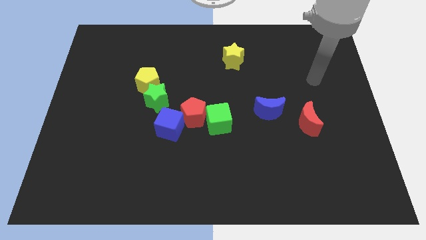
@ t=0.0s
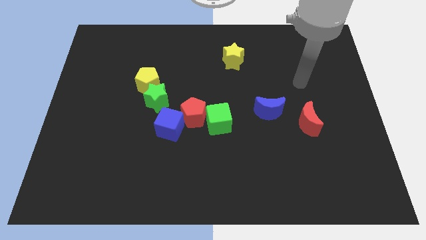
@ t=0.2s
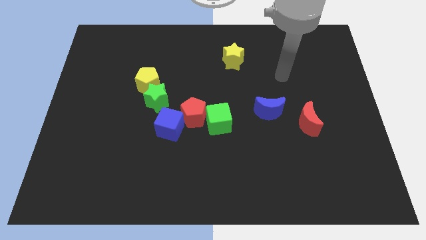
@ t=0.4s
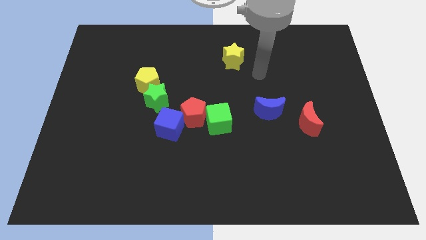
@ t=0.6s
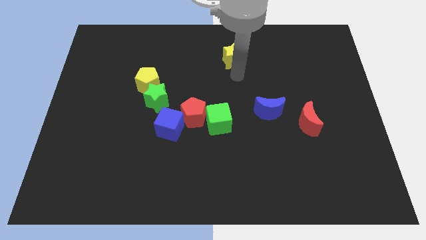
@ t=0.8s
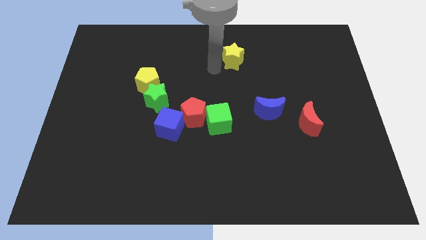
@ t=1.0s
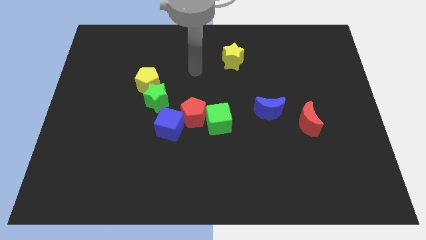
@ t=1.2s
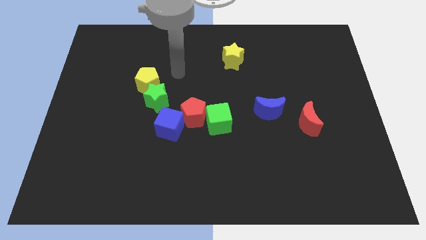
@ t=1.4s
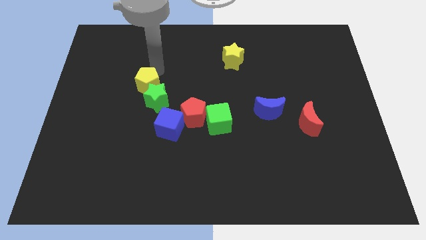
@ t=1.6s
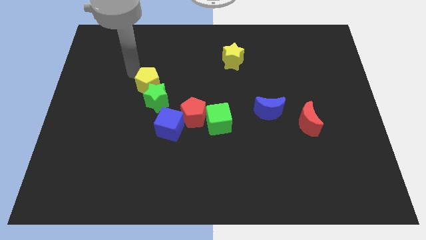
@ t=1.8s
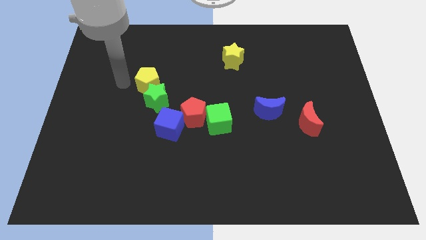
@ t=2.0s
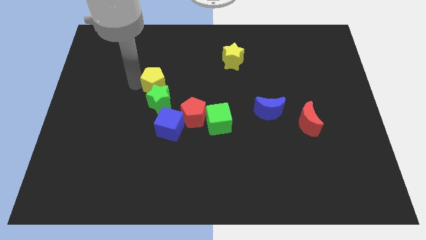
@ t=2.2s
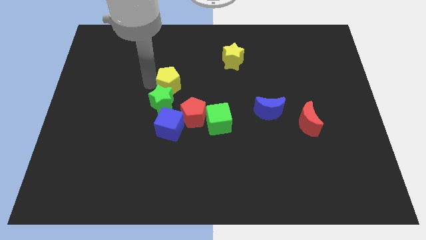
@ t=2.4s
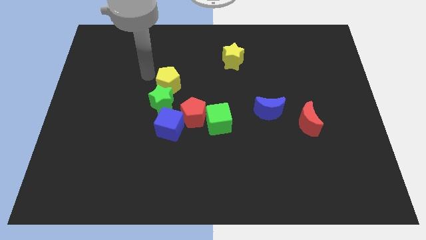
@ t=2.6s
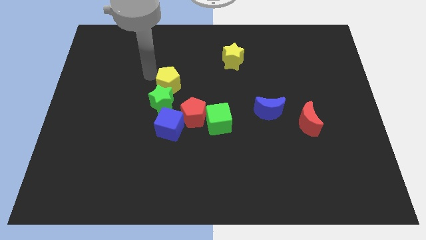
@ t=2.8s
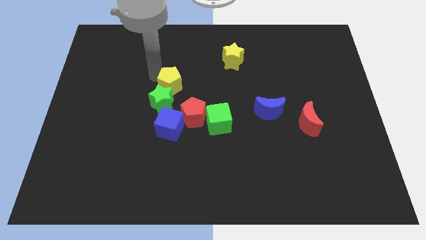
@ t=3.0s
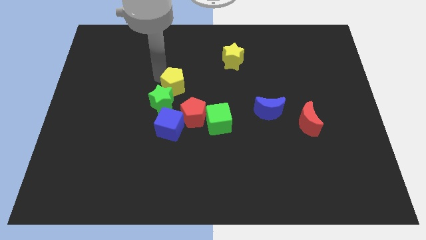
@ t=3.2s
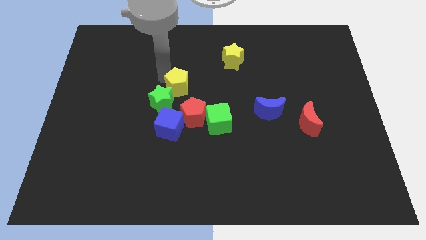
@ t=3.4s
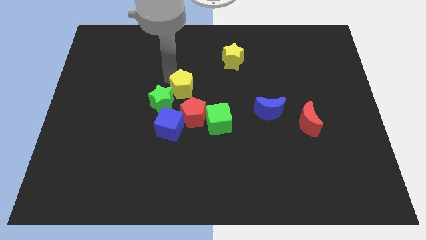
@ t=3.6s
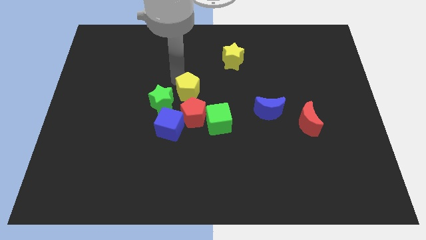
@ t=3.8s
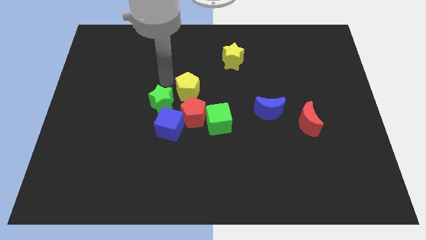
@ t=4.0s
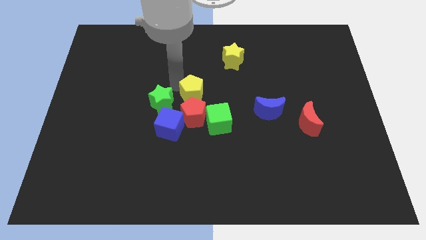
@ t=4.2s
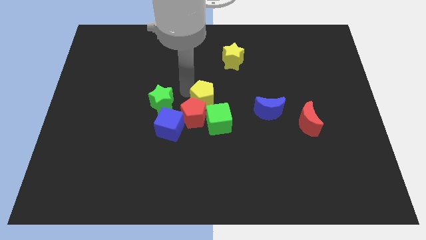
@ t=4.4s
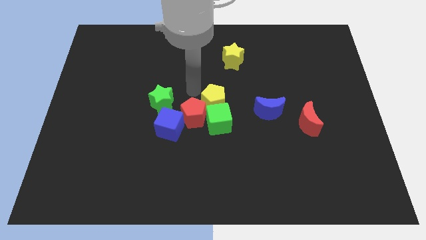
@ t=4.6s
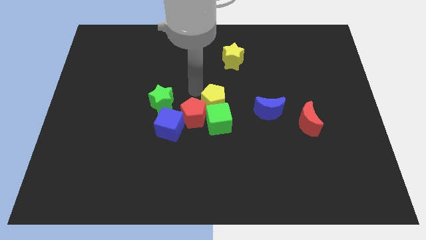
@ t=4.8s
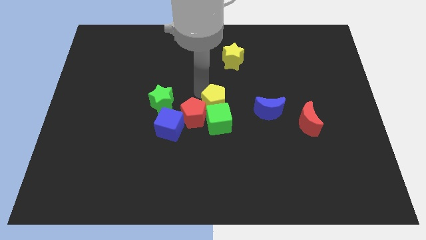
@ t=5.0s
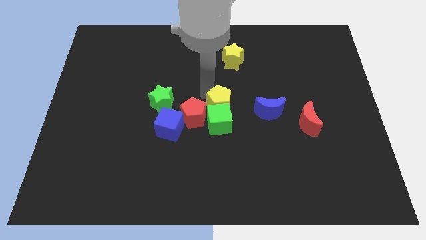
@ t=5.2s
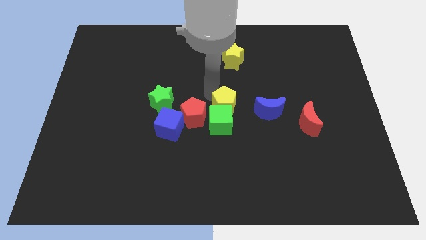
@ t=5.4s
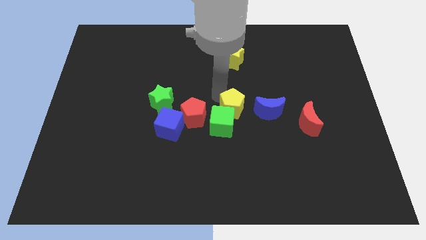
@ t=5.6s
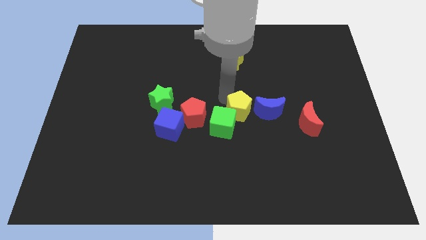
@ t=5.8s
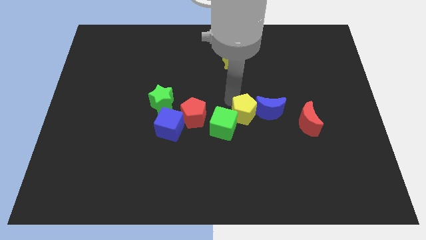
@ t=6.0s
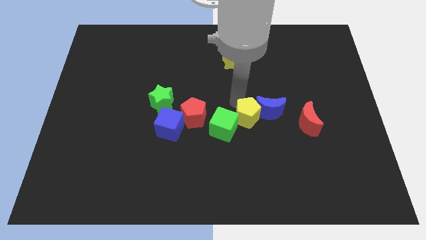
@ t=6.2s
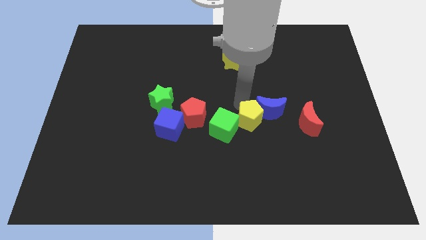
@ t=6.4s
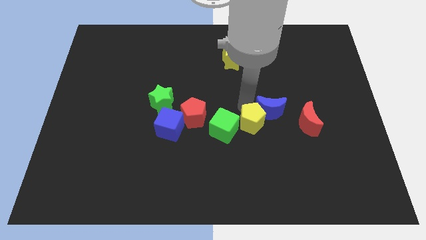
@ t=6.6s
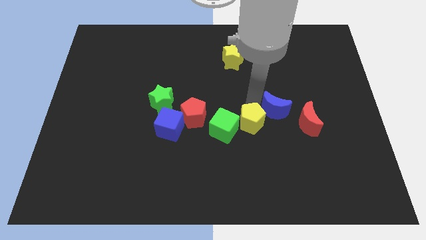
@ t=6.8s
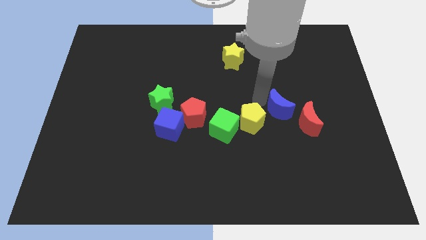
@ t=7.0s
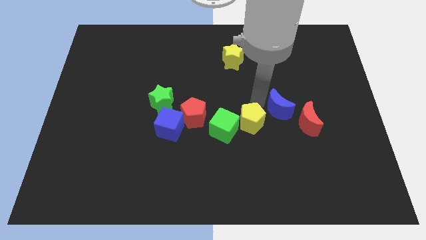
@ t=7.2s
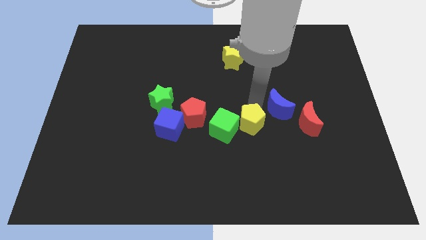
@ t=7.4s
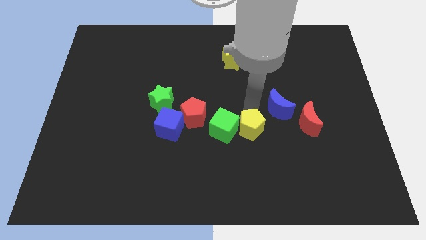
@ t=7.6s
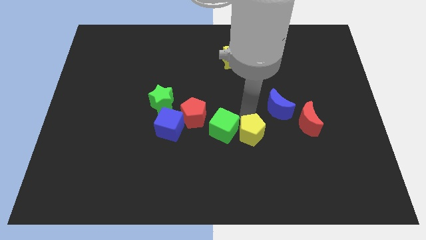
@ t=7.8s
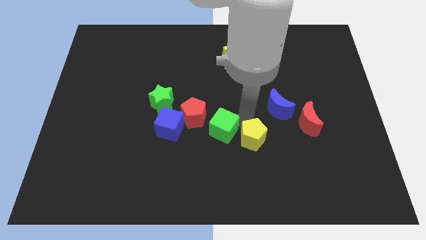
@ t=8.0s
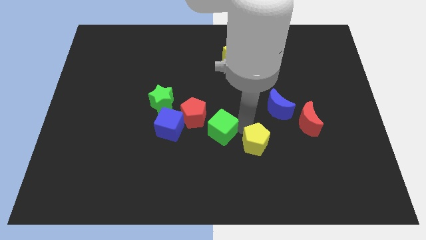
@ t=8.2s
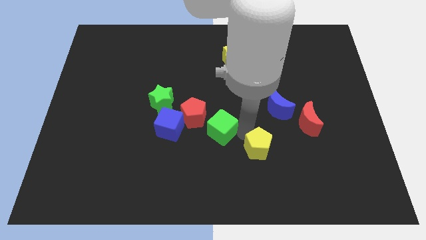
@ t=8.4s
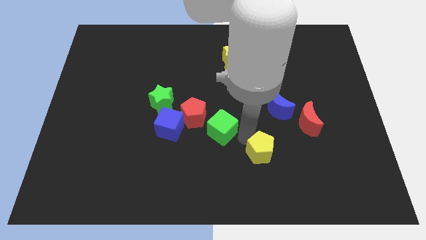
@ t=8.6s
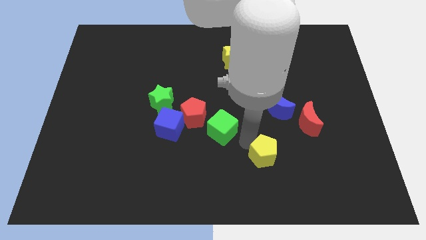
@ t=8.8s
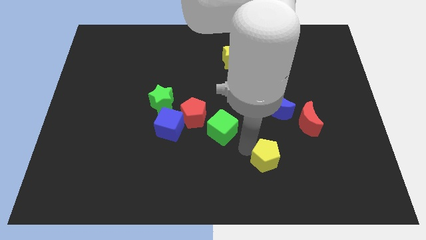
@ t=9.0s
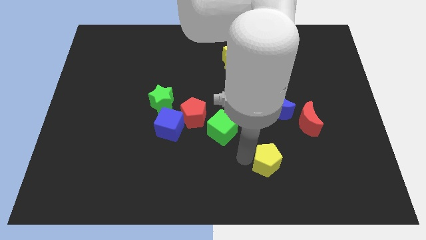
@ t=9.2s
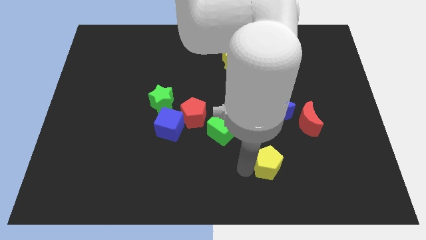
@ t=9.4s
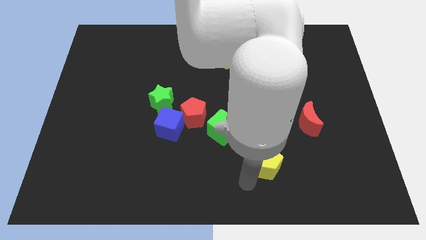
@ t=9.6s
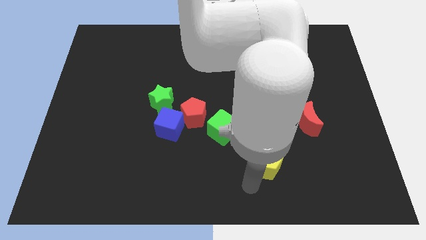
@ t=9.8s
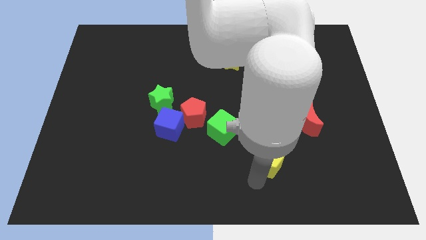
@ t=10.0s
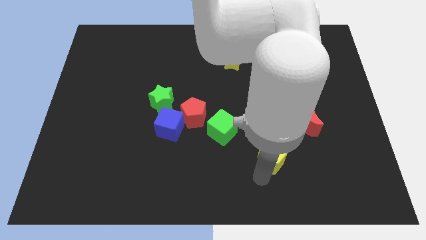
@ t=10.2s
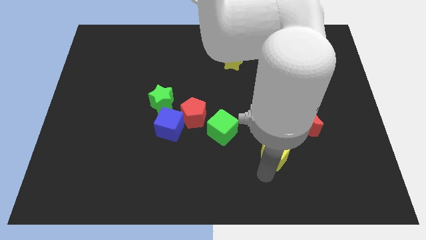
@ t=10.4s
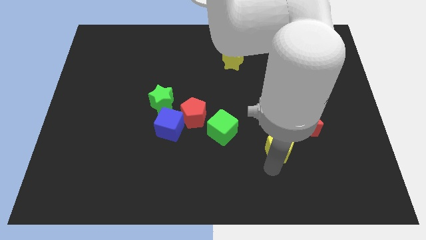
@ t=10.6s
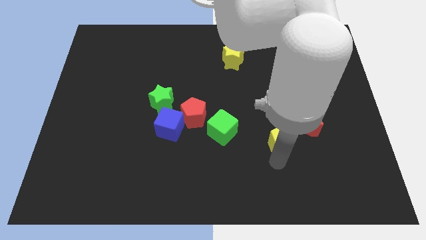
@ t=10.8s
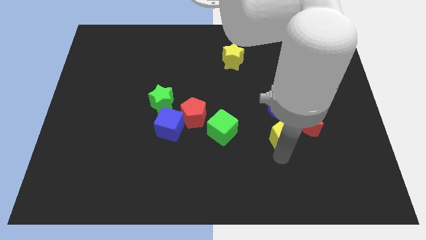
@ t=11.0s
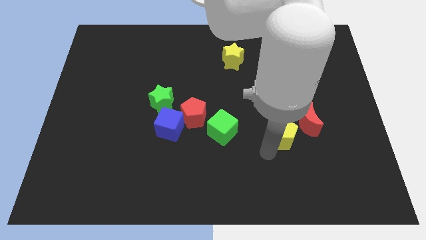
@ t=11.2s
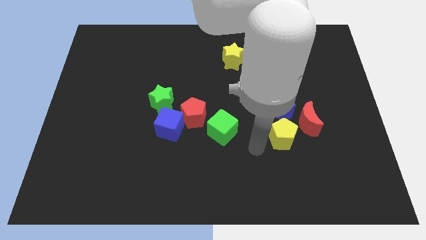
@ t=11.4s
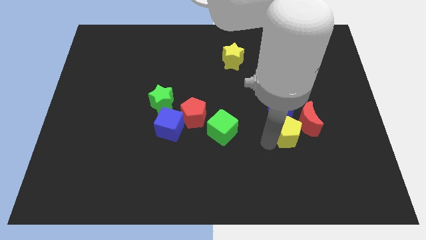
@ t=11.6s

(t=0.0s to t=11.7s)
slide the yellow pentagon diagonally down and to the right of the blue moon

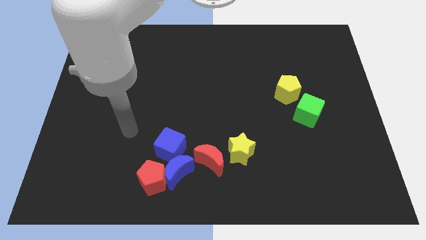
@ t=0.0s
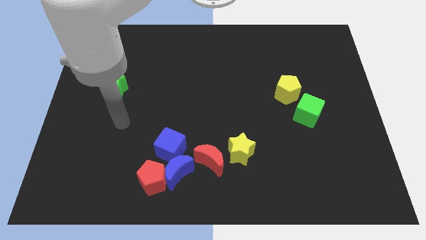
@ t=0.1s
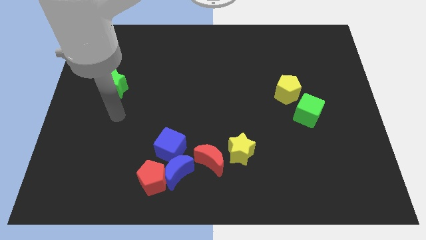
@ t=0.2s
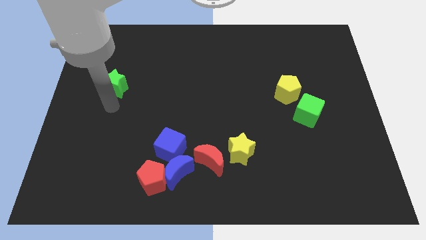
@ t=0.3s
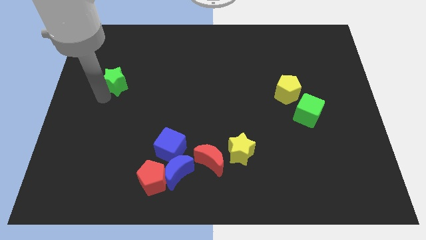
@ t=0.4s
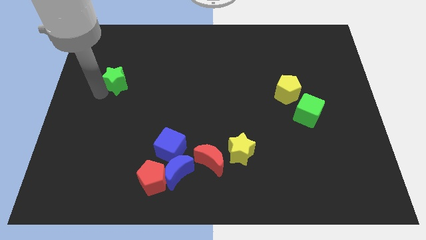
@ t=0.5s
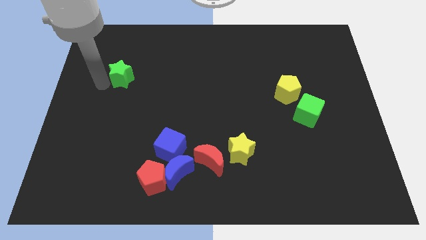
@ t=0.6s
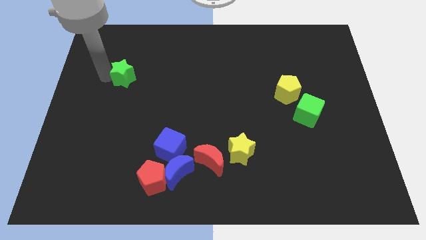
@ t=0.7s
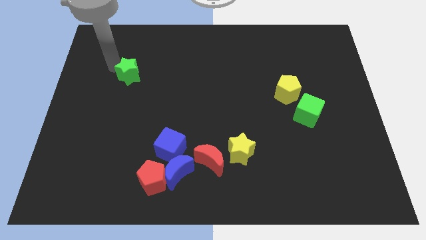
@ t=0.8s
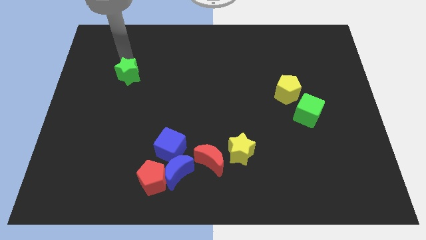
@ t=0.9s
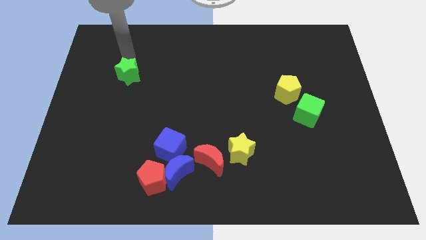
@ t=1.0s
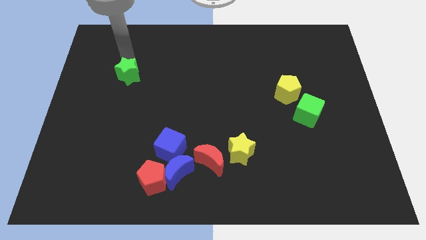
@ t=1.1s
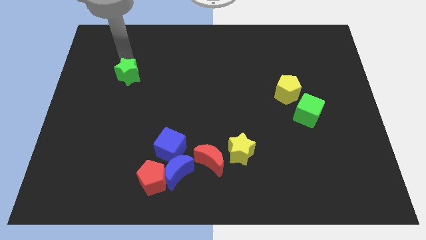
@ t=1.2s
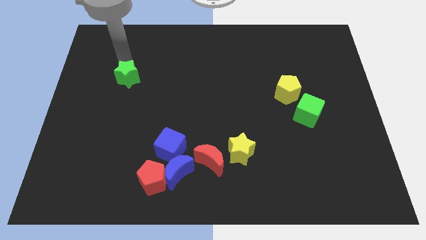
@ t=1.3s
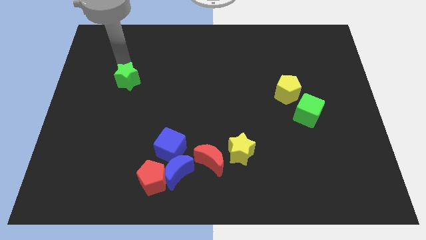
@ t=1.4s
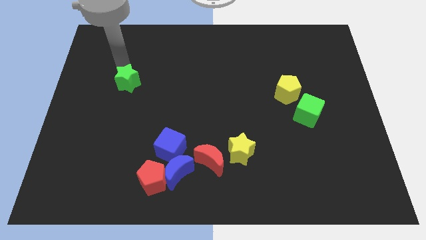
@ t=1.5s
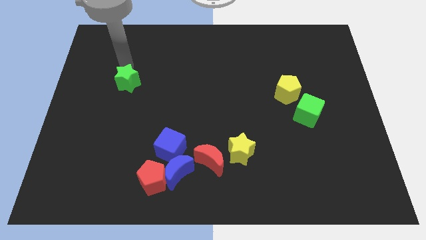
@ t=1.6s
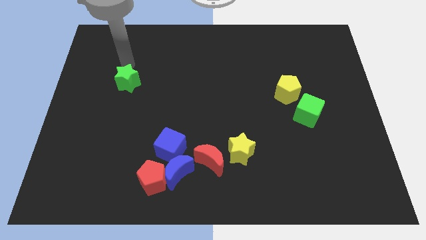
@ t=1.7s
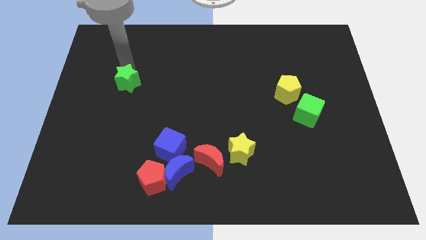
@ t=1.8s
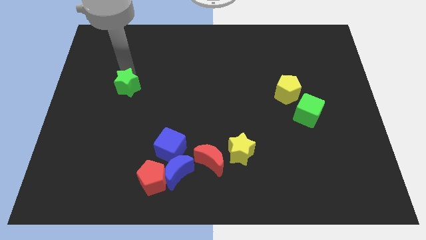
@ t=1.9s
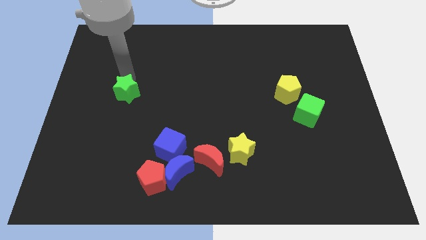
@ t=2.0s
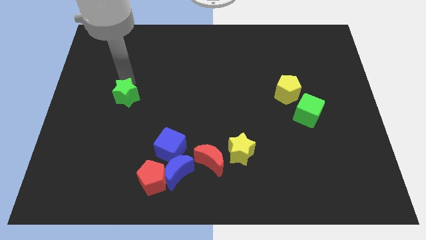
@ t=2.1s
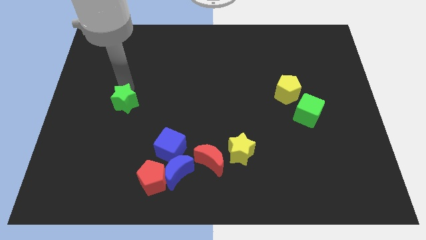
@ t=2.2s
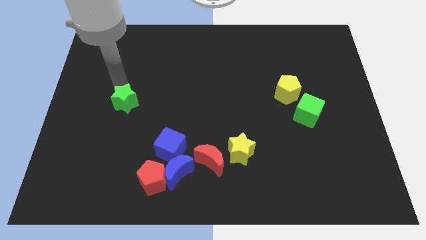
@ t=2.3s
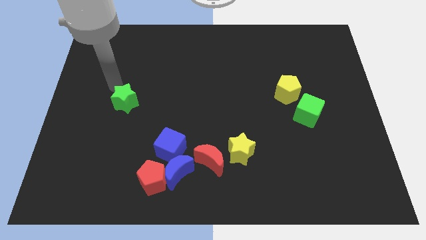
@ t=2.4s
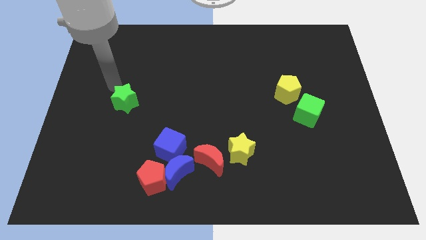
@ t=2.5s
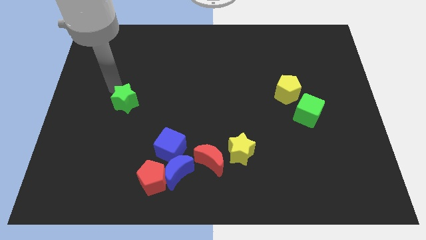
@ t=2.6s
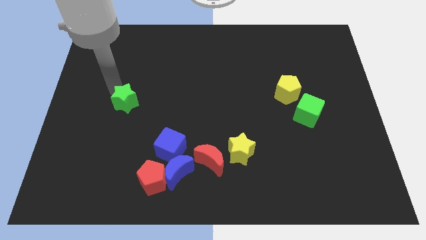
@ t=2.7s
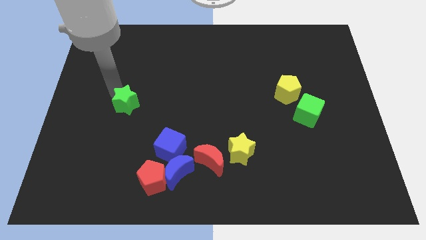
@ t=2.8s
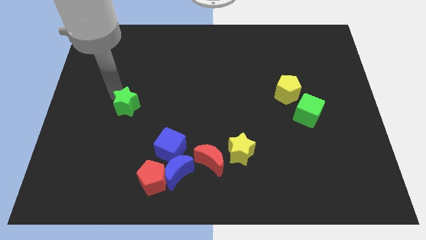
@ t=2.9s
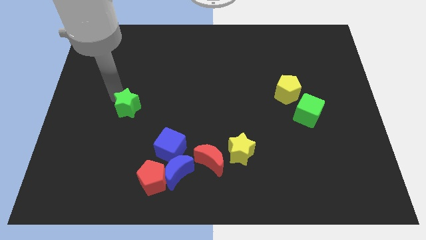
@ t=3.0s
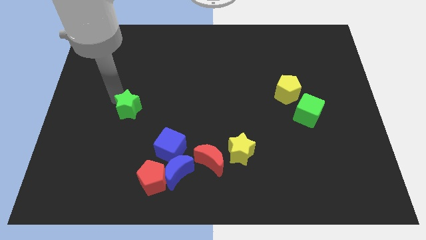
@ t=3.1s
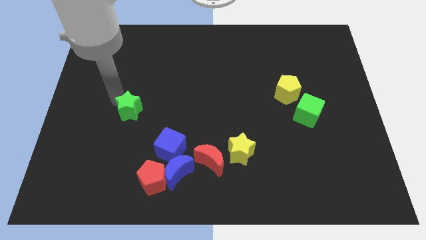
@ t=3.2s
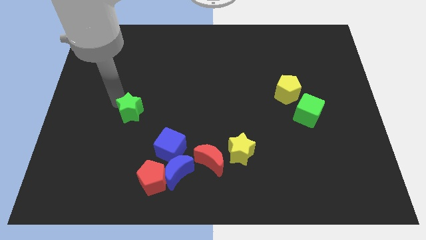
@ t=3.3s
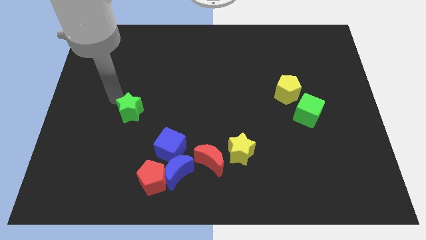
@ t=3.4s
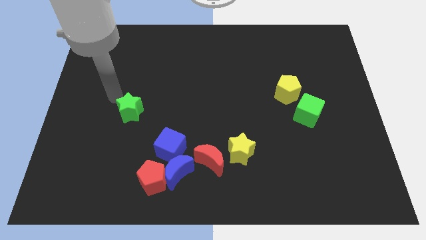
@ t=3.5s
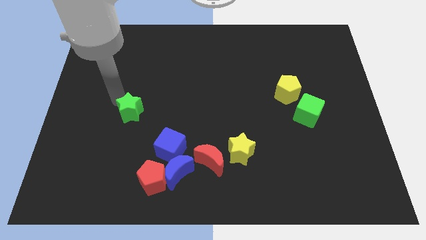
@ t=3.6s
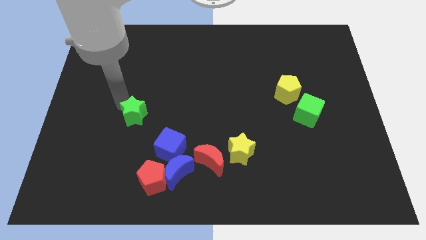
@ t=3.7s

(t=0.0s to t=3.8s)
push the green star to the top left of the blue cube
